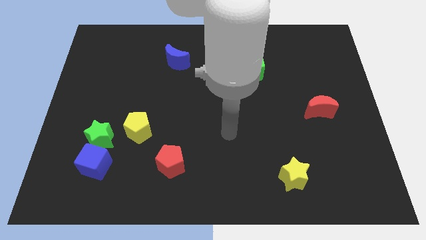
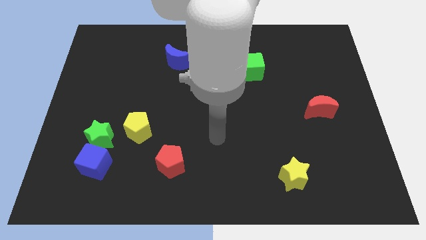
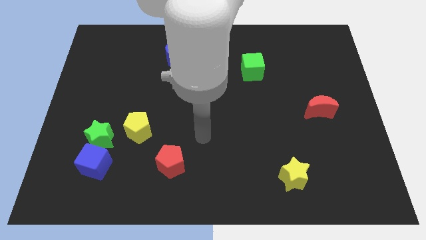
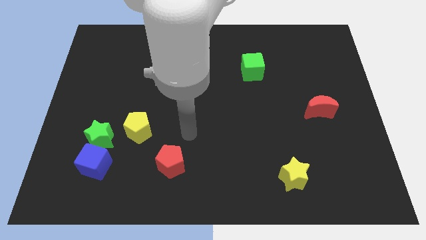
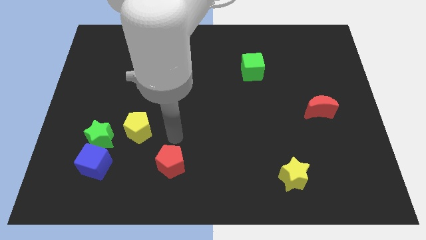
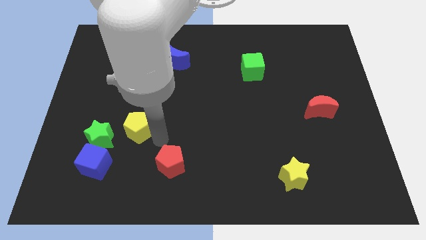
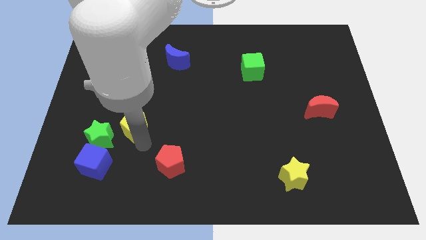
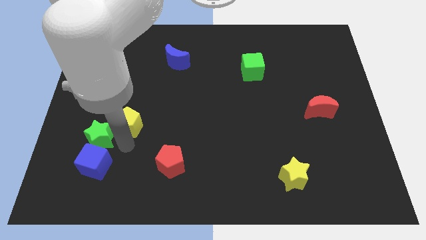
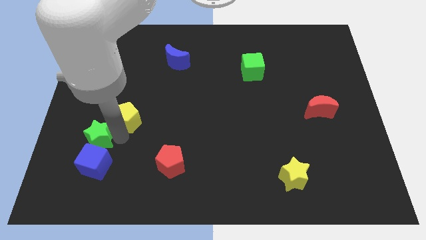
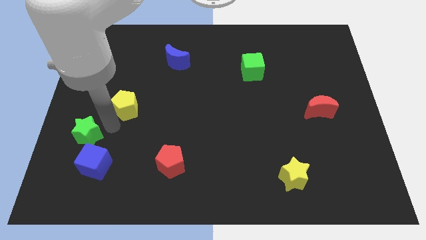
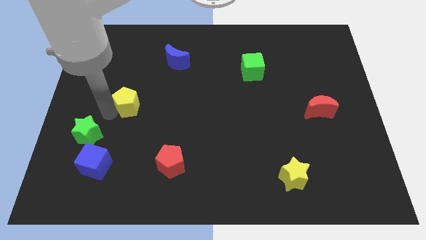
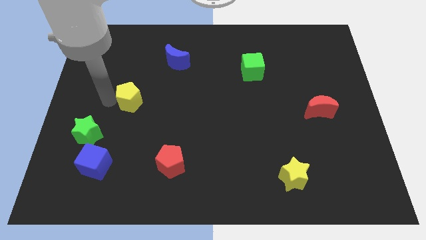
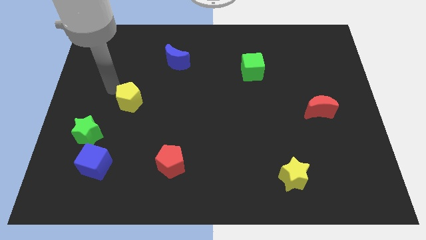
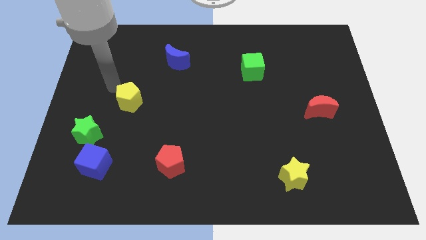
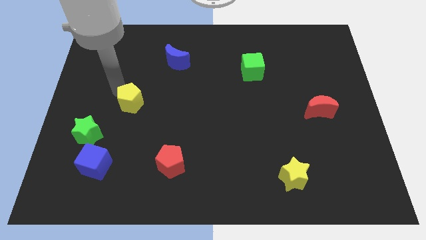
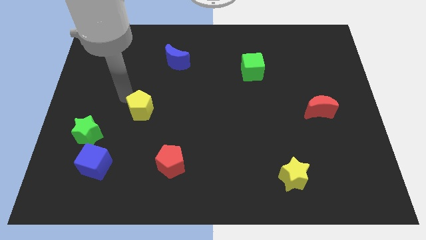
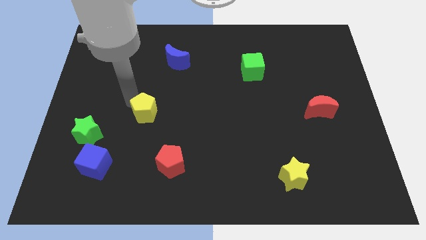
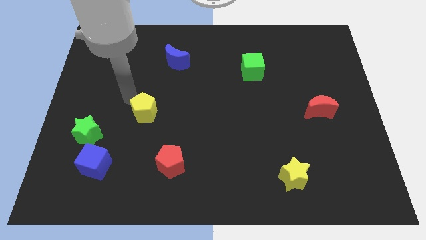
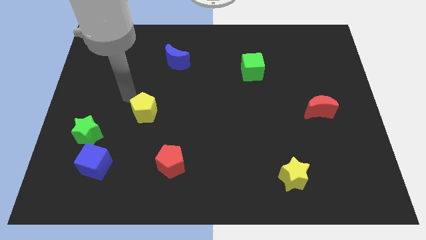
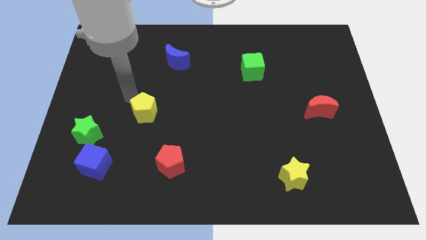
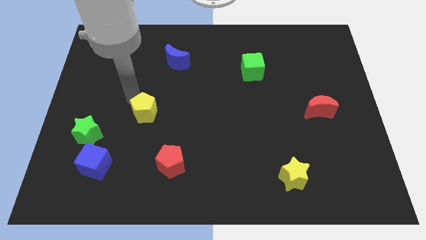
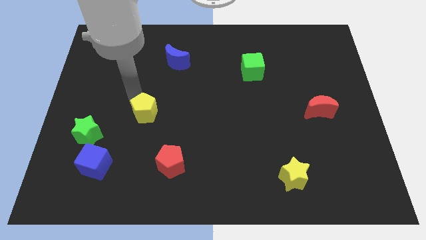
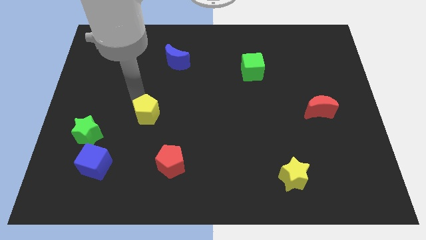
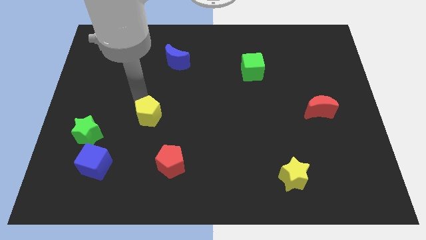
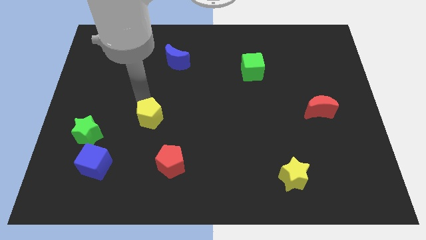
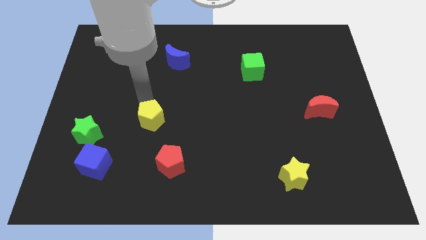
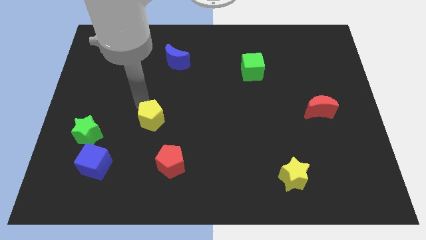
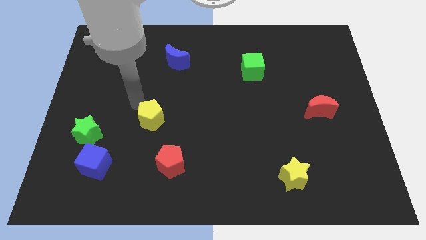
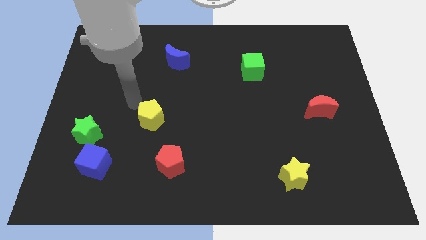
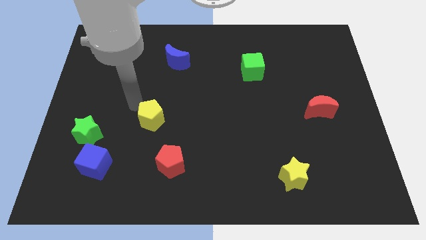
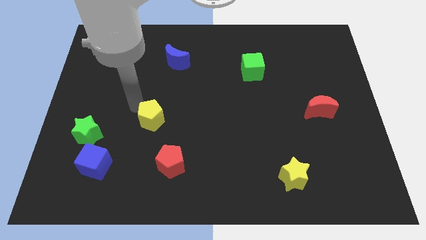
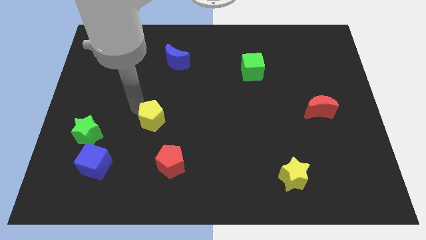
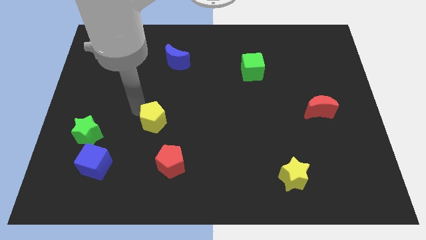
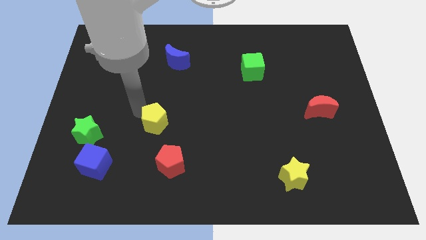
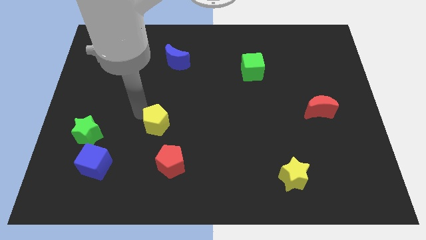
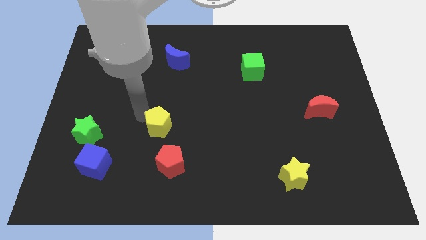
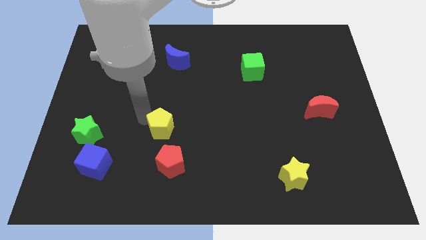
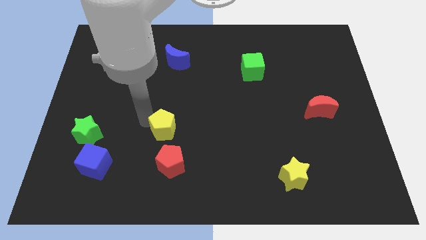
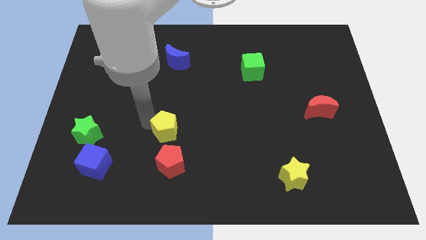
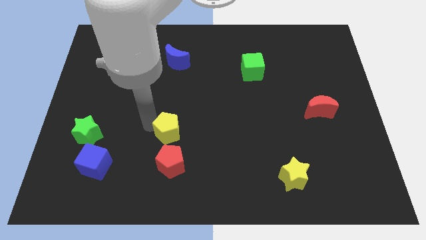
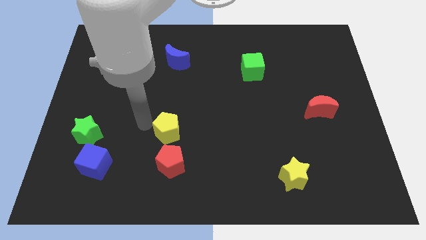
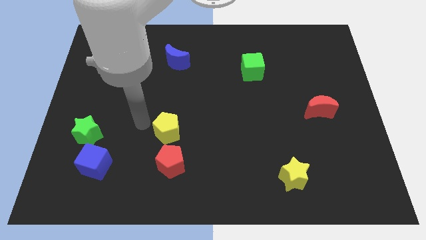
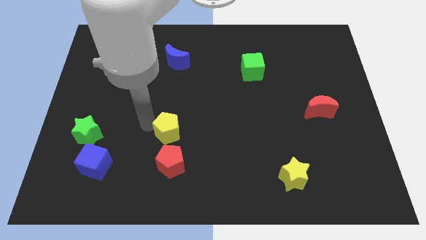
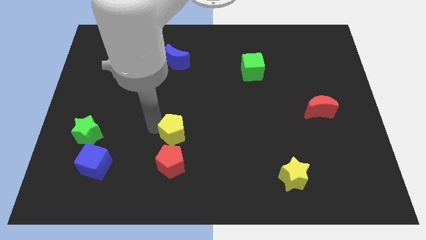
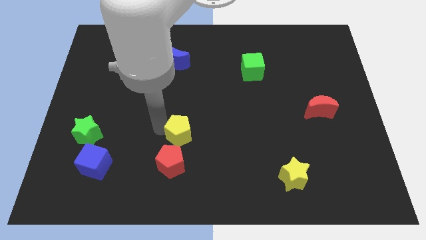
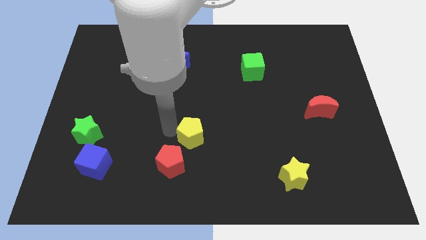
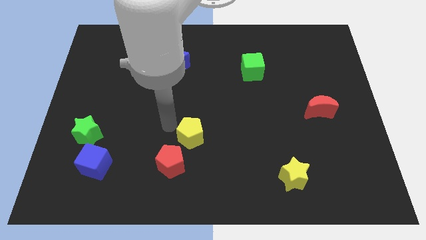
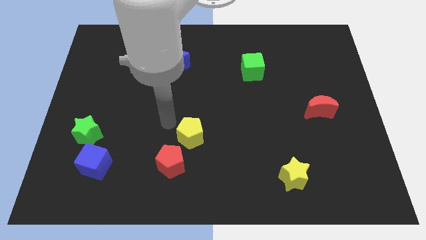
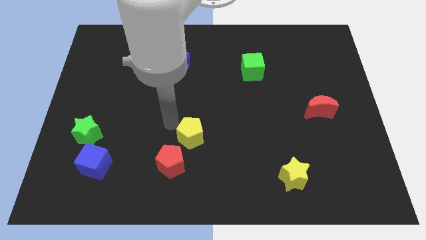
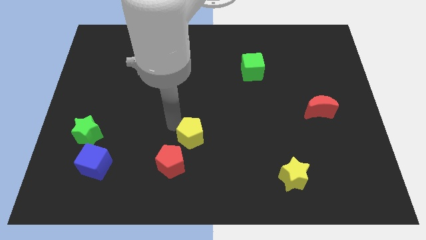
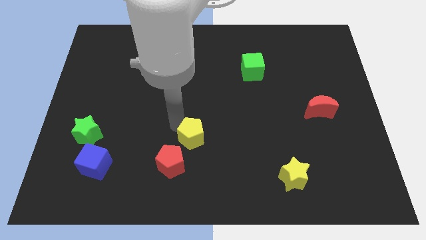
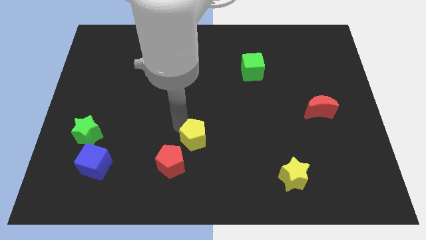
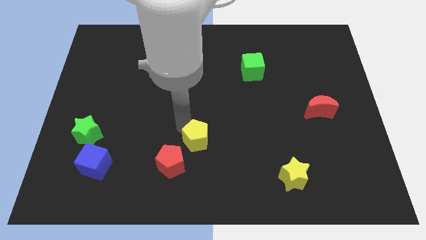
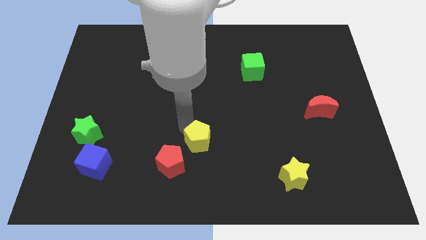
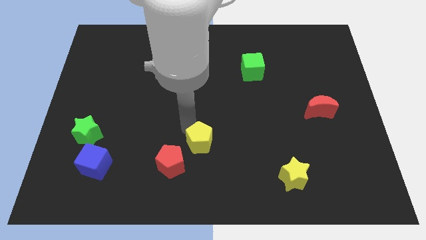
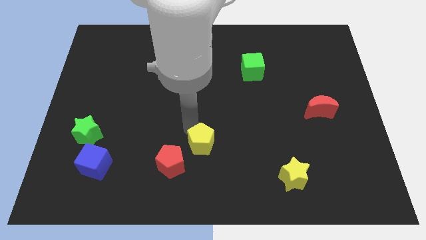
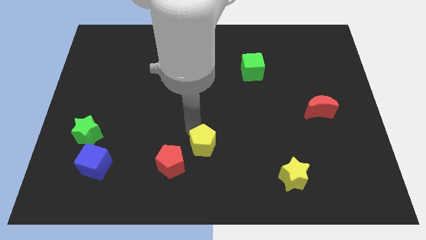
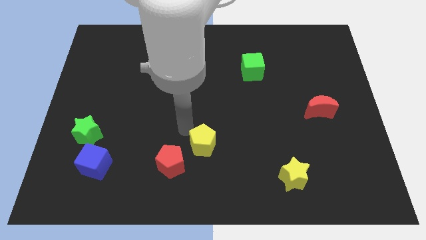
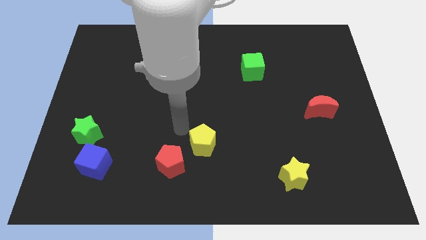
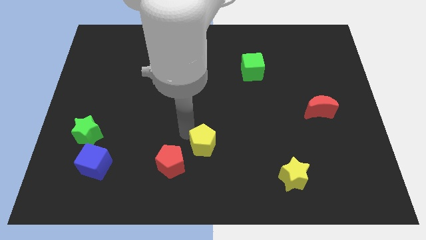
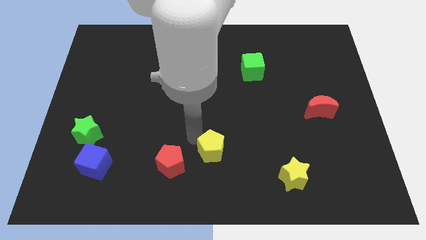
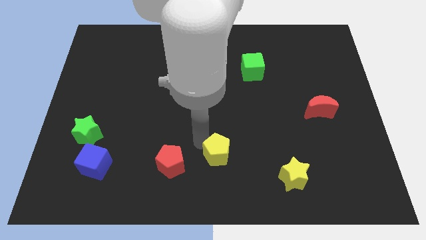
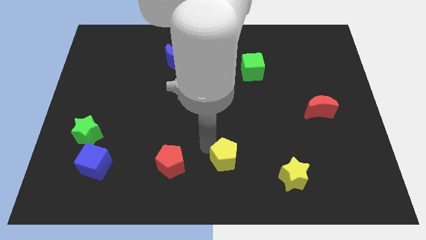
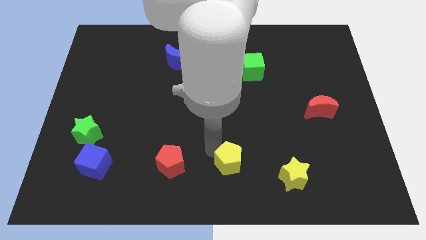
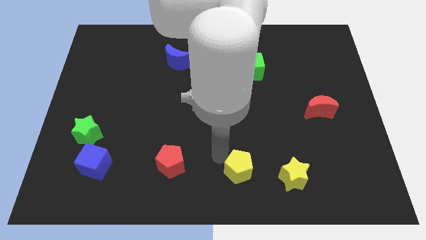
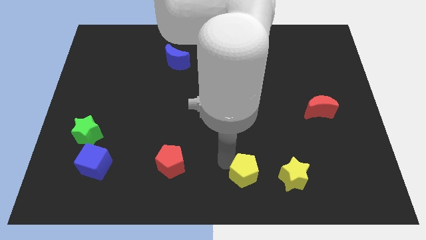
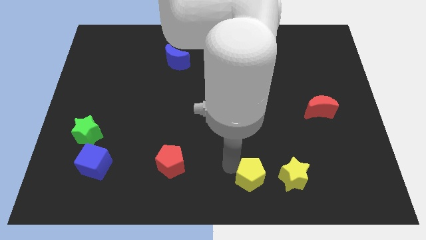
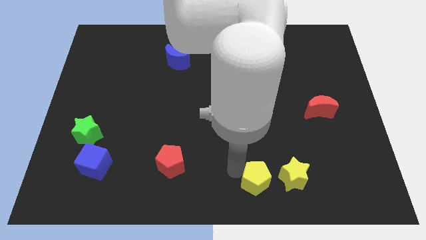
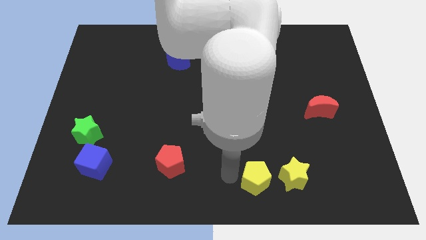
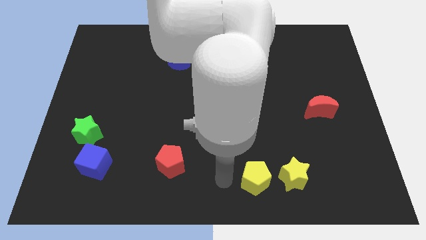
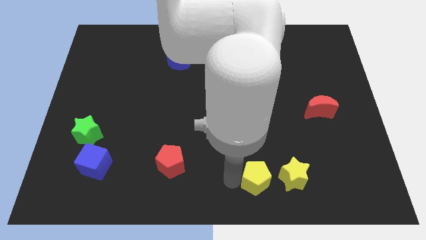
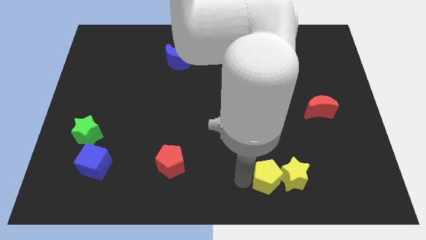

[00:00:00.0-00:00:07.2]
move the yellow pentagon towards the yellow star
